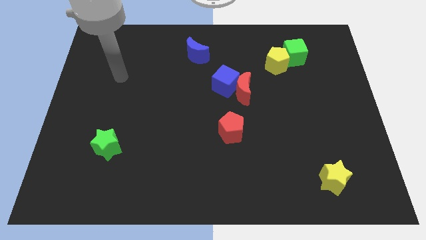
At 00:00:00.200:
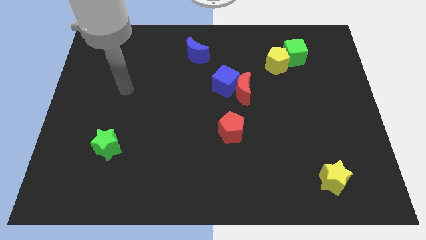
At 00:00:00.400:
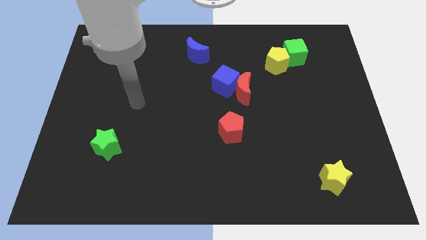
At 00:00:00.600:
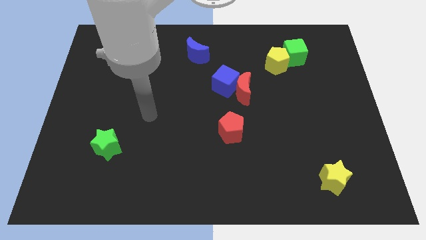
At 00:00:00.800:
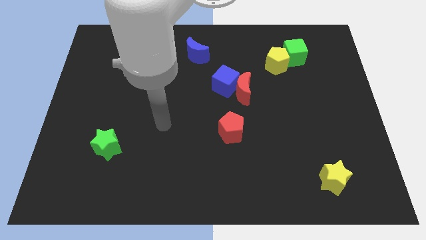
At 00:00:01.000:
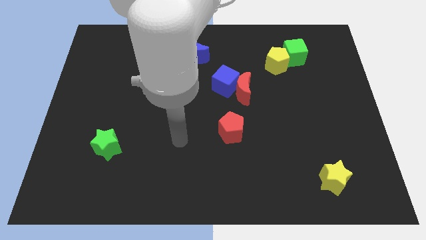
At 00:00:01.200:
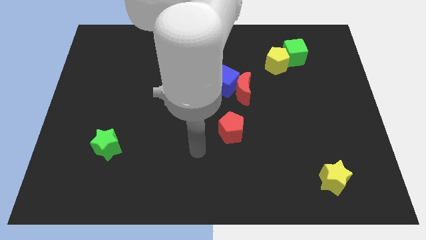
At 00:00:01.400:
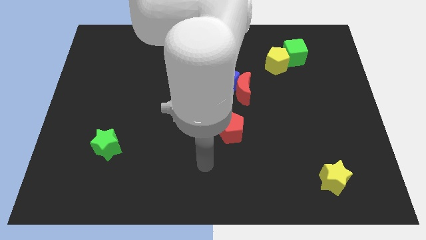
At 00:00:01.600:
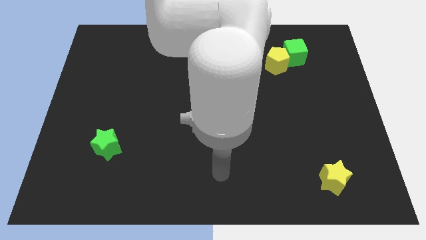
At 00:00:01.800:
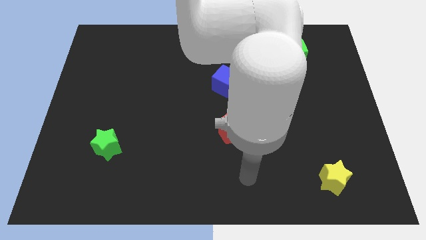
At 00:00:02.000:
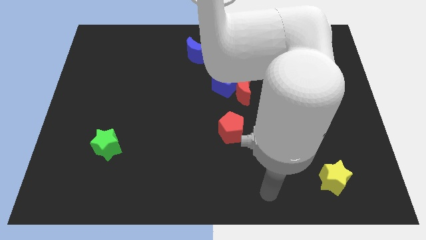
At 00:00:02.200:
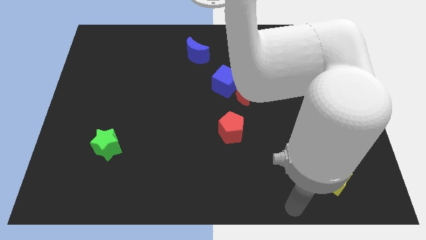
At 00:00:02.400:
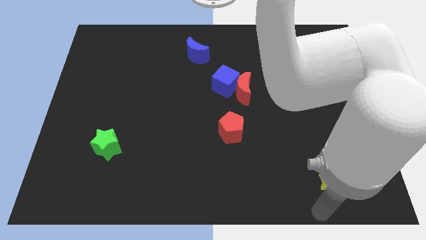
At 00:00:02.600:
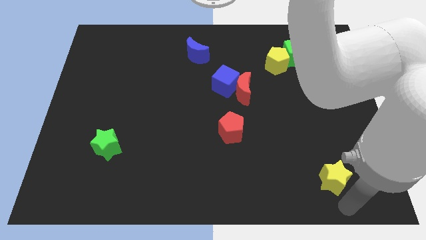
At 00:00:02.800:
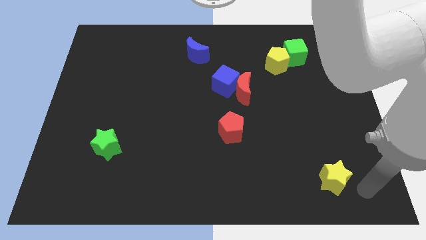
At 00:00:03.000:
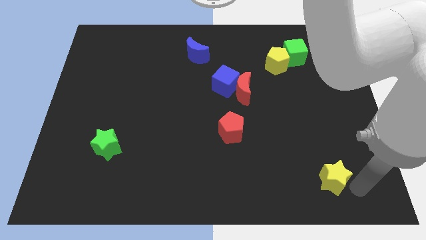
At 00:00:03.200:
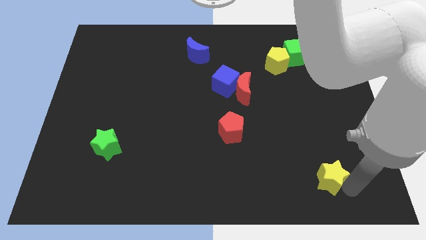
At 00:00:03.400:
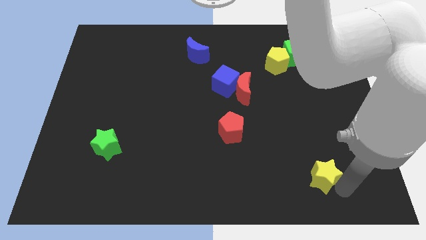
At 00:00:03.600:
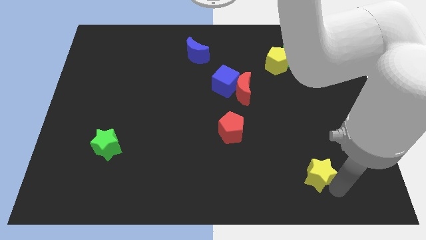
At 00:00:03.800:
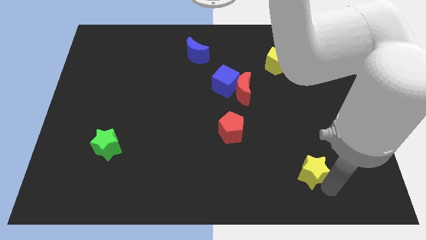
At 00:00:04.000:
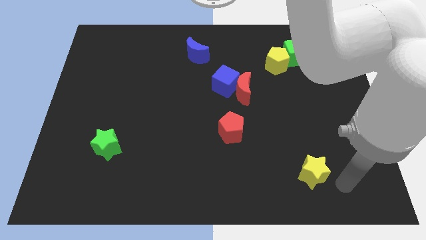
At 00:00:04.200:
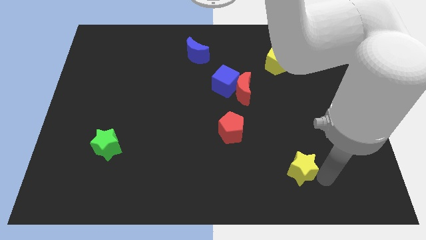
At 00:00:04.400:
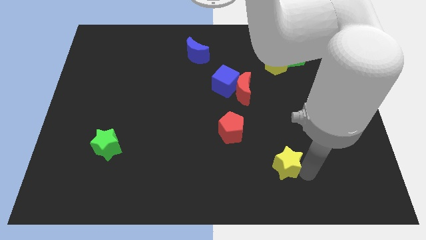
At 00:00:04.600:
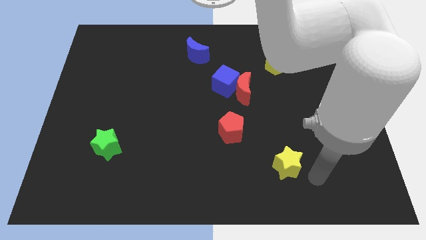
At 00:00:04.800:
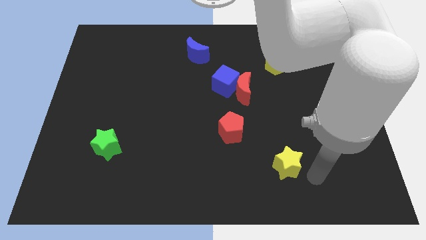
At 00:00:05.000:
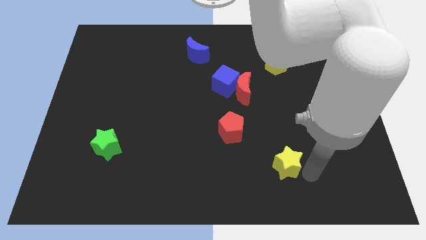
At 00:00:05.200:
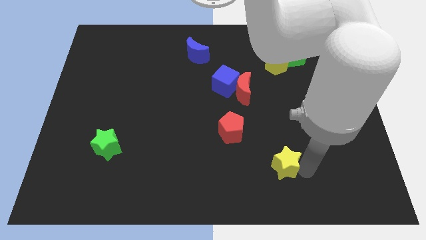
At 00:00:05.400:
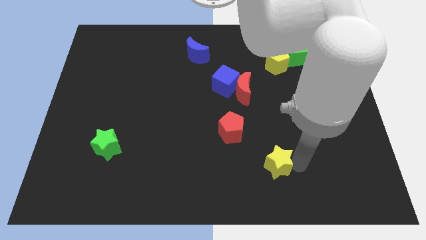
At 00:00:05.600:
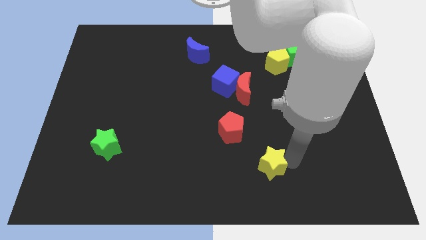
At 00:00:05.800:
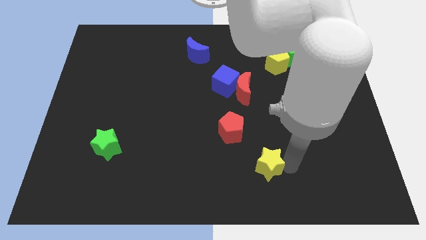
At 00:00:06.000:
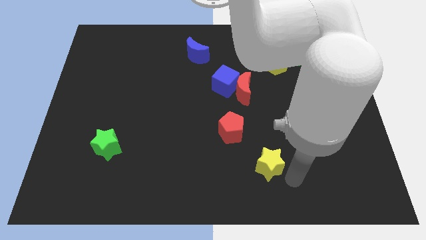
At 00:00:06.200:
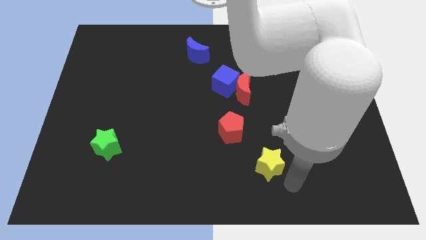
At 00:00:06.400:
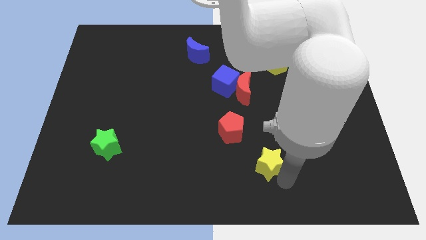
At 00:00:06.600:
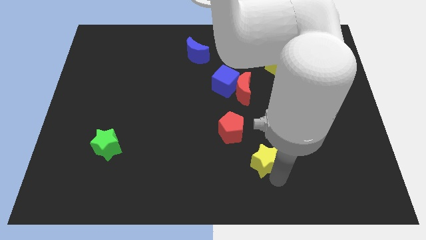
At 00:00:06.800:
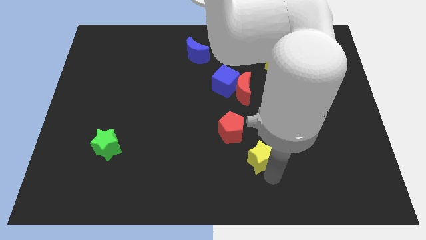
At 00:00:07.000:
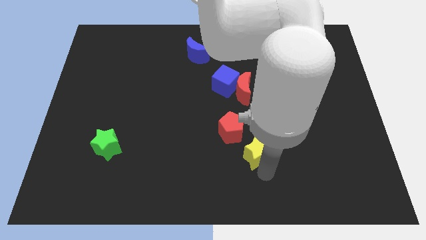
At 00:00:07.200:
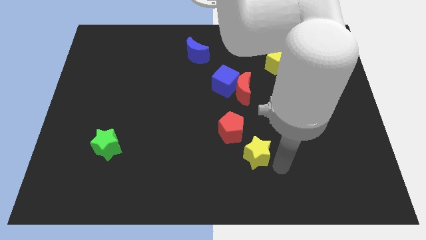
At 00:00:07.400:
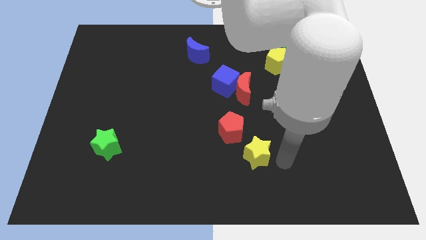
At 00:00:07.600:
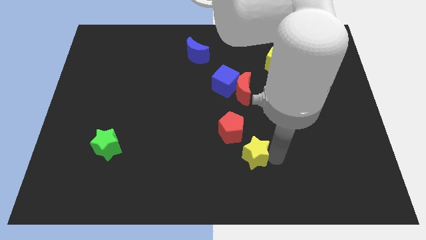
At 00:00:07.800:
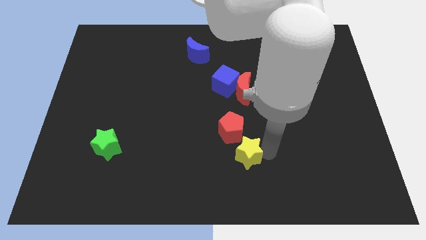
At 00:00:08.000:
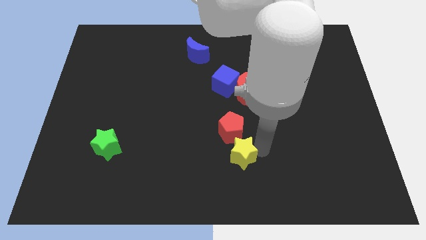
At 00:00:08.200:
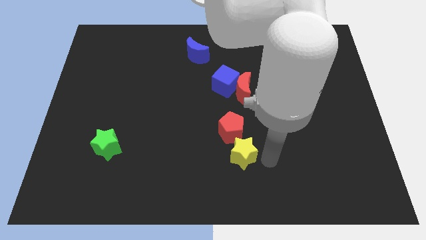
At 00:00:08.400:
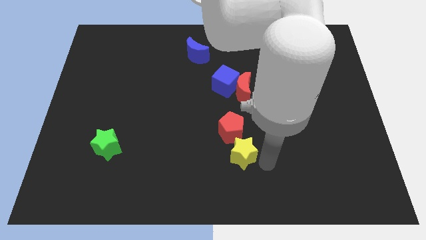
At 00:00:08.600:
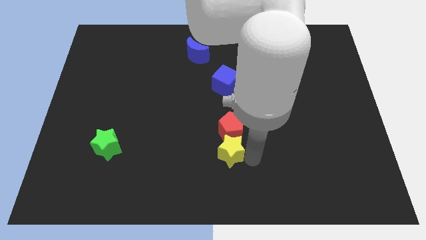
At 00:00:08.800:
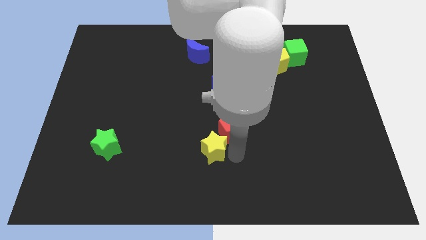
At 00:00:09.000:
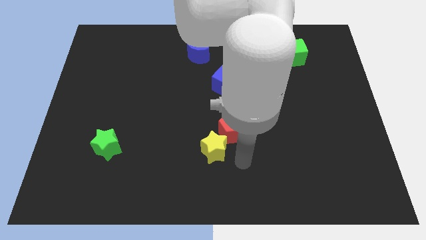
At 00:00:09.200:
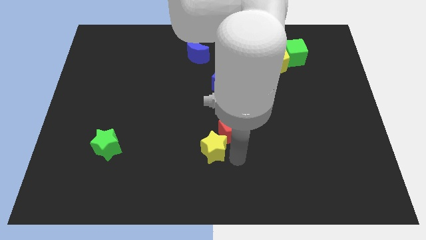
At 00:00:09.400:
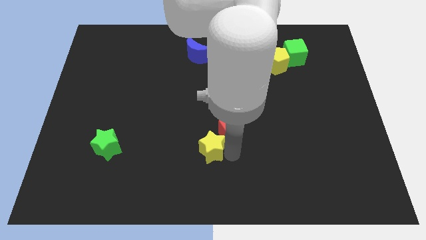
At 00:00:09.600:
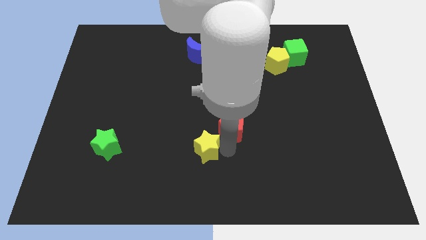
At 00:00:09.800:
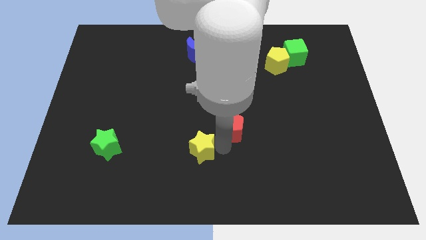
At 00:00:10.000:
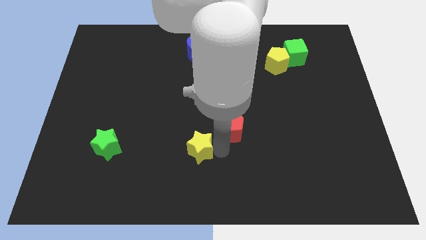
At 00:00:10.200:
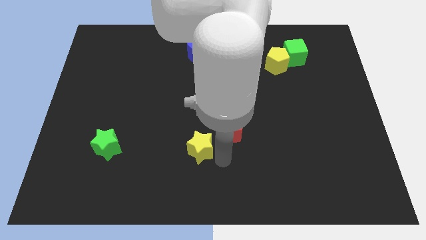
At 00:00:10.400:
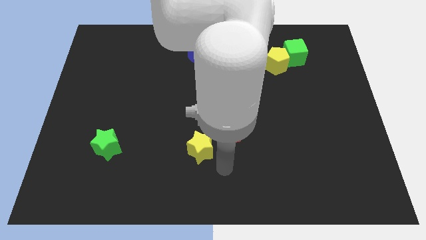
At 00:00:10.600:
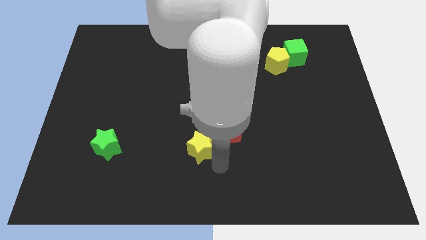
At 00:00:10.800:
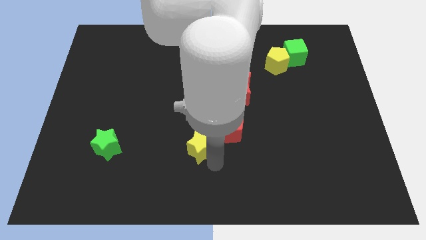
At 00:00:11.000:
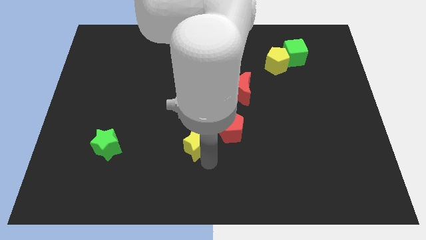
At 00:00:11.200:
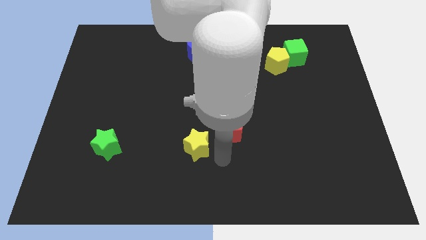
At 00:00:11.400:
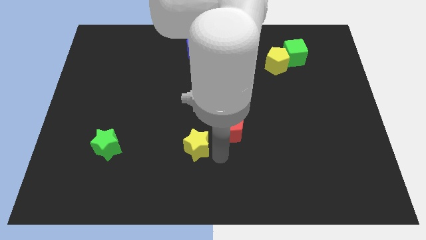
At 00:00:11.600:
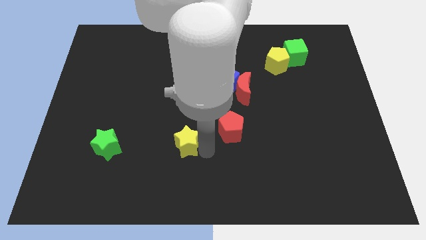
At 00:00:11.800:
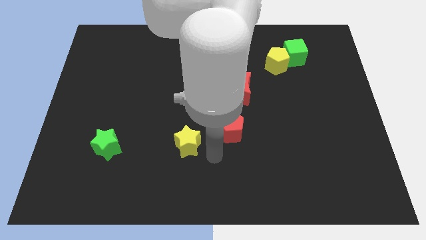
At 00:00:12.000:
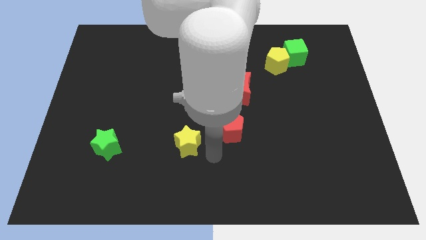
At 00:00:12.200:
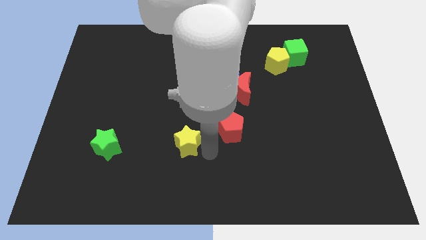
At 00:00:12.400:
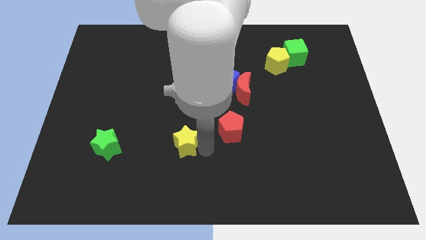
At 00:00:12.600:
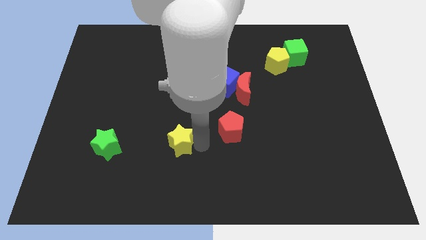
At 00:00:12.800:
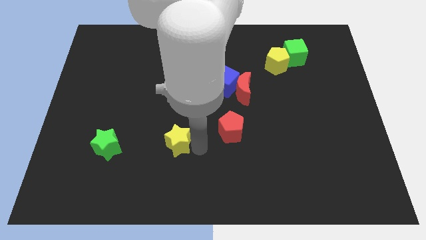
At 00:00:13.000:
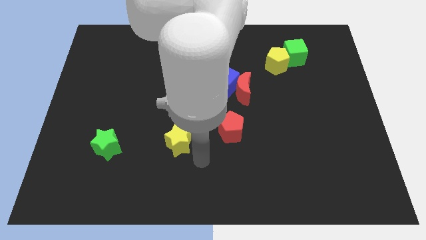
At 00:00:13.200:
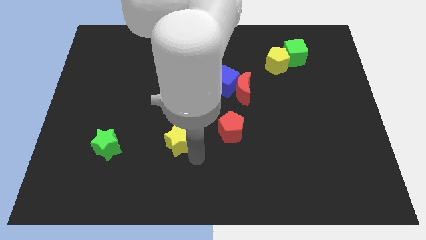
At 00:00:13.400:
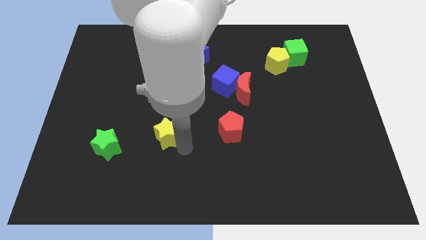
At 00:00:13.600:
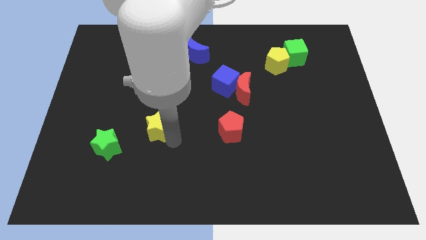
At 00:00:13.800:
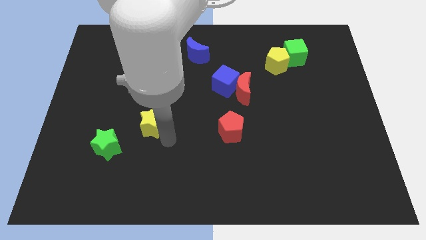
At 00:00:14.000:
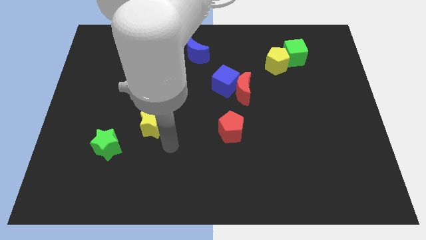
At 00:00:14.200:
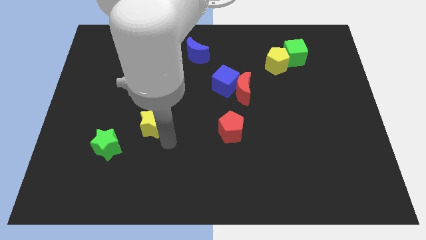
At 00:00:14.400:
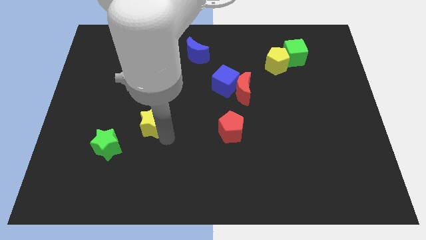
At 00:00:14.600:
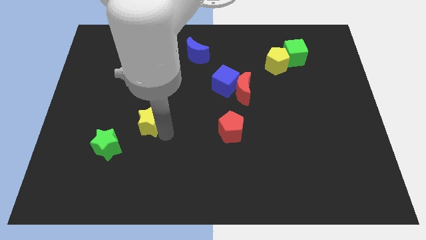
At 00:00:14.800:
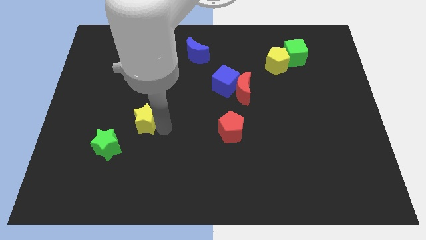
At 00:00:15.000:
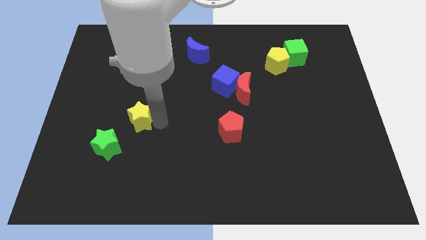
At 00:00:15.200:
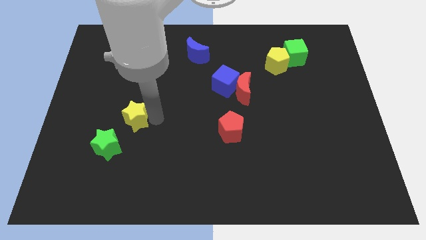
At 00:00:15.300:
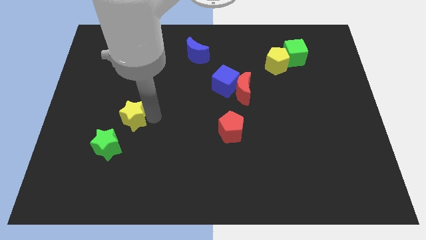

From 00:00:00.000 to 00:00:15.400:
put the yellow star to the top side of the green star
